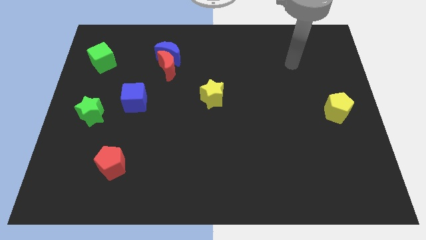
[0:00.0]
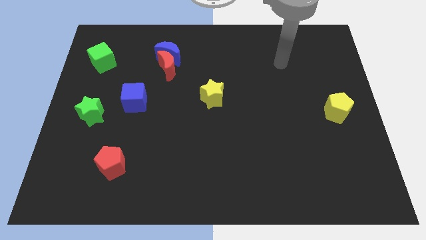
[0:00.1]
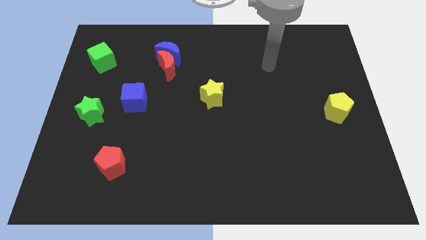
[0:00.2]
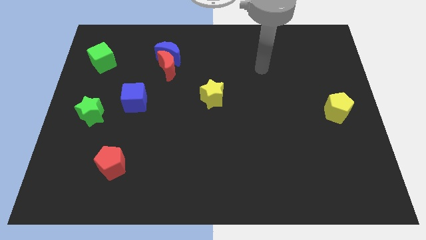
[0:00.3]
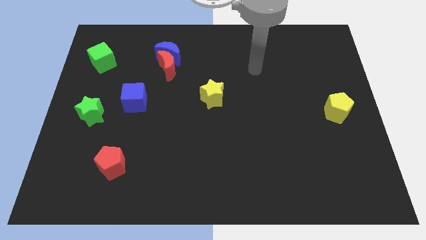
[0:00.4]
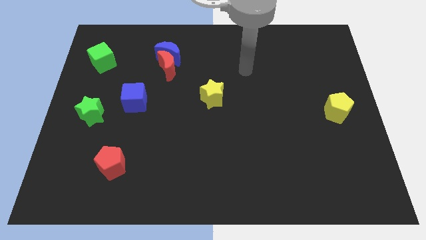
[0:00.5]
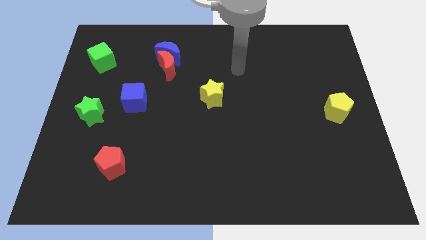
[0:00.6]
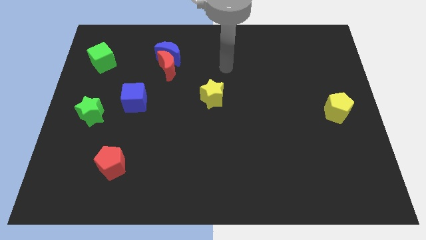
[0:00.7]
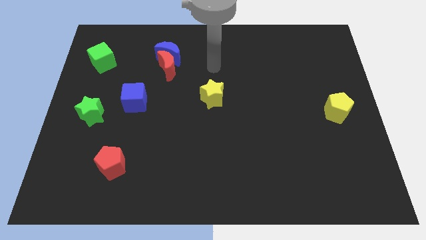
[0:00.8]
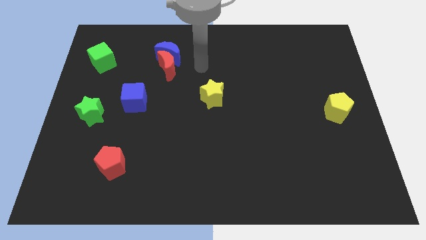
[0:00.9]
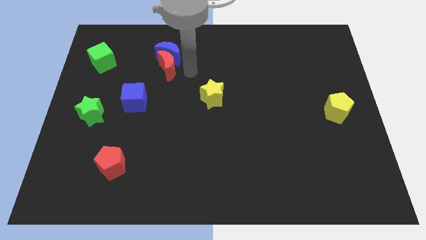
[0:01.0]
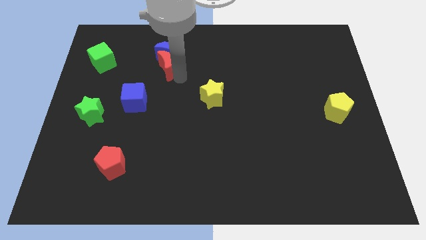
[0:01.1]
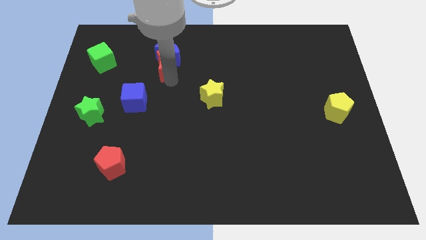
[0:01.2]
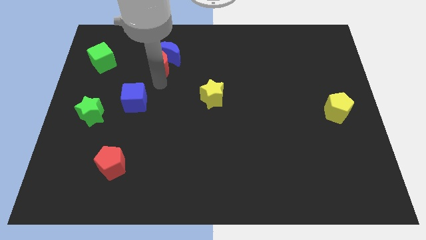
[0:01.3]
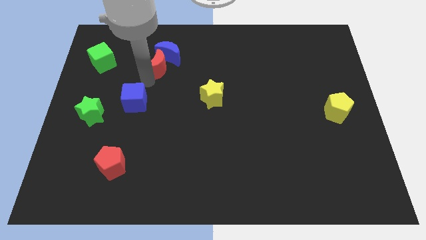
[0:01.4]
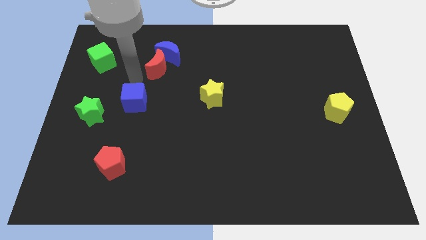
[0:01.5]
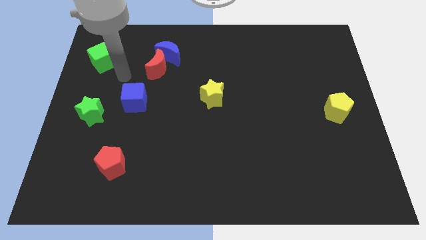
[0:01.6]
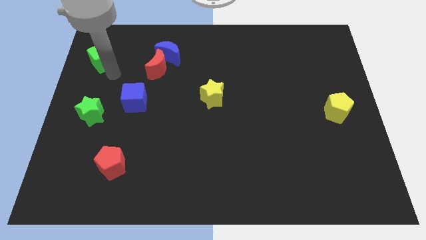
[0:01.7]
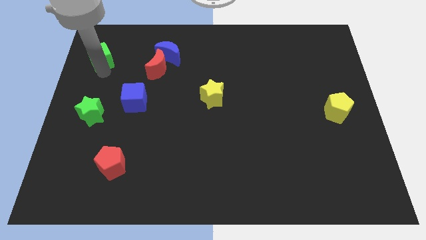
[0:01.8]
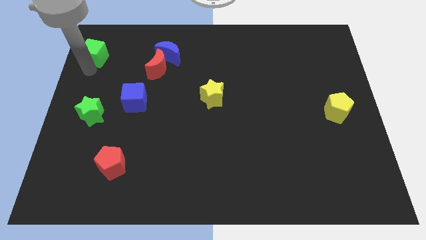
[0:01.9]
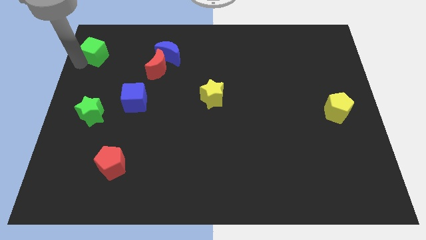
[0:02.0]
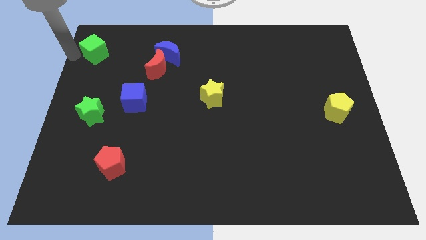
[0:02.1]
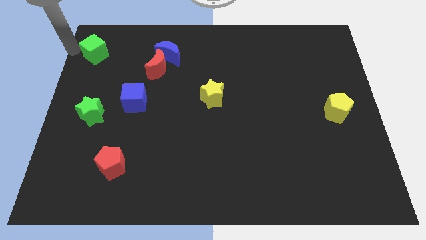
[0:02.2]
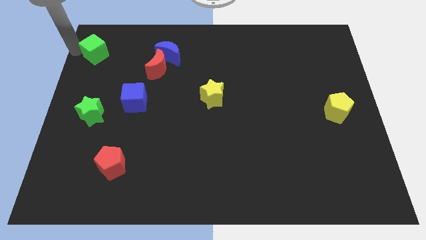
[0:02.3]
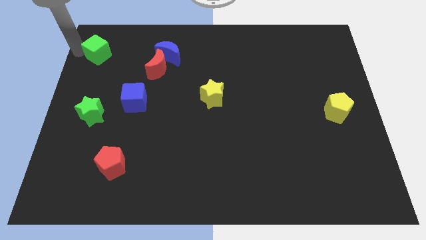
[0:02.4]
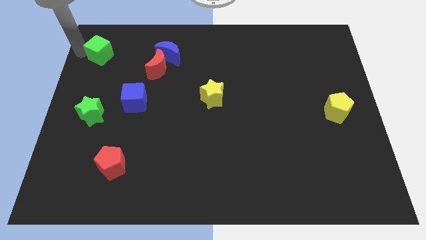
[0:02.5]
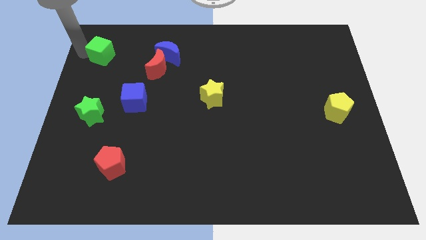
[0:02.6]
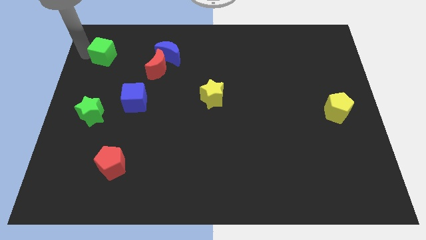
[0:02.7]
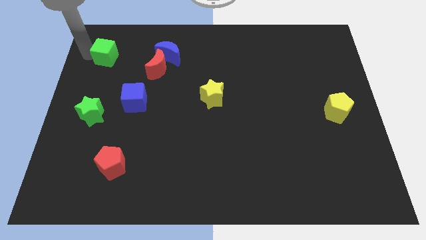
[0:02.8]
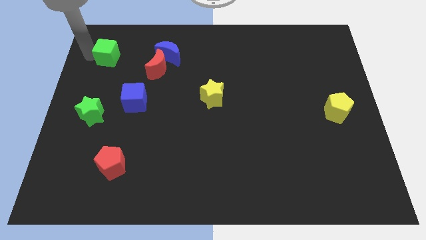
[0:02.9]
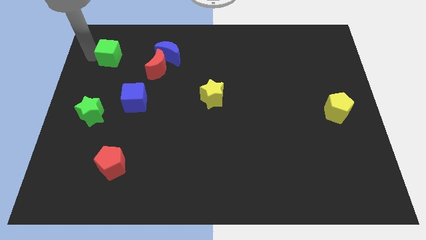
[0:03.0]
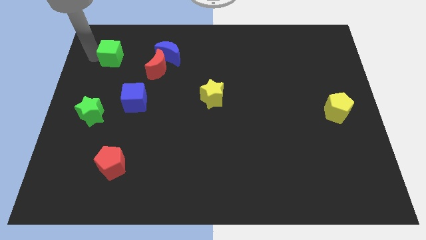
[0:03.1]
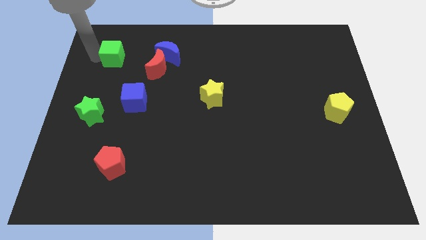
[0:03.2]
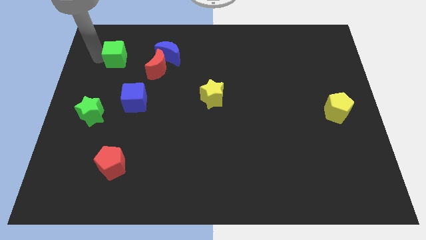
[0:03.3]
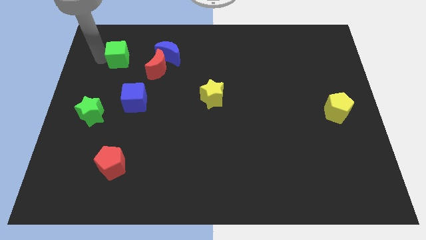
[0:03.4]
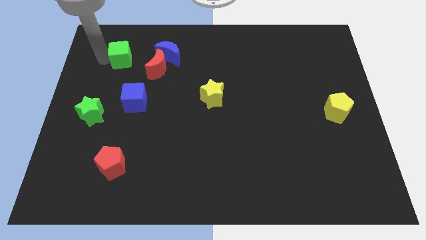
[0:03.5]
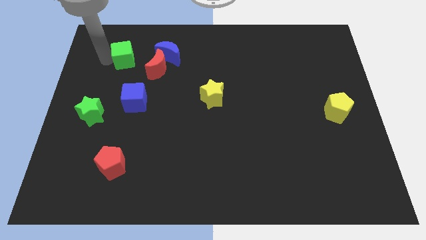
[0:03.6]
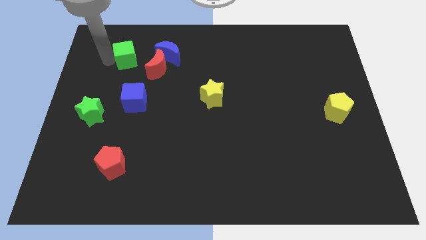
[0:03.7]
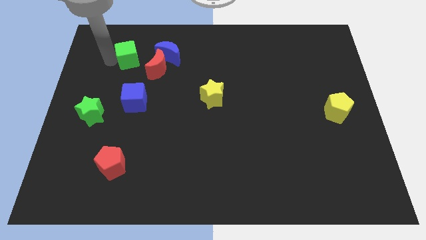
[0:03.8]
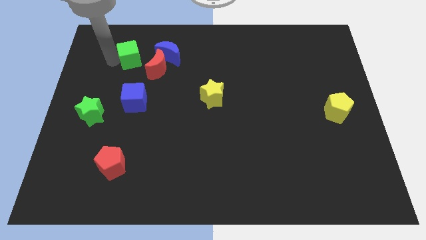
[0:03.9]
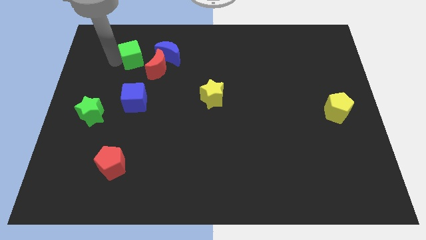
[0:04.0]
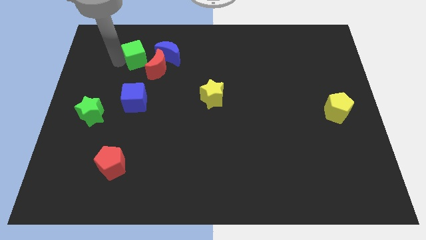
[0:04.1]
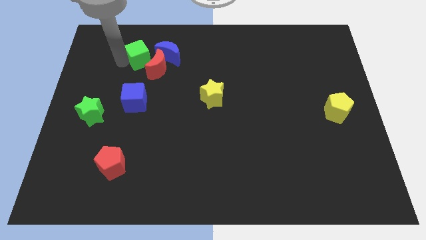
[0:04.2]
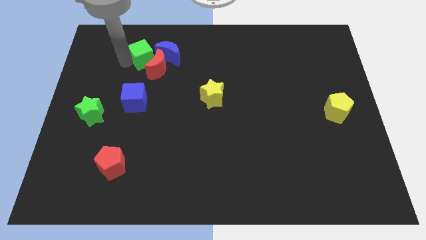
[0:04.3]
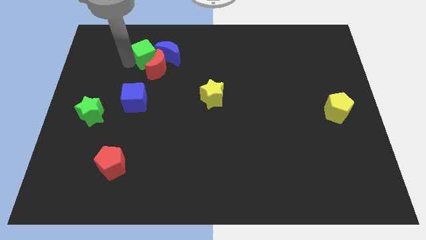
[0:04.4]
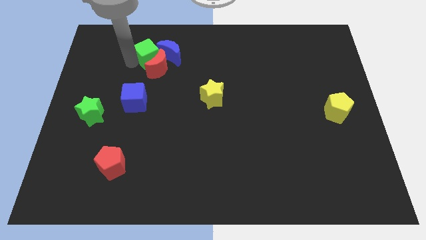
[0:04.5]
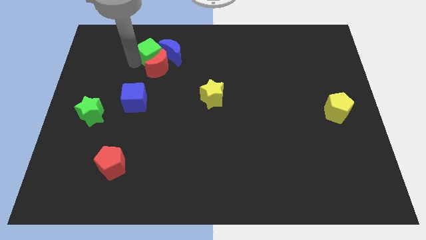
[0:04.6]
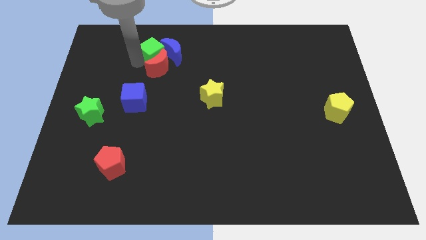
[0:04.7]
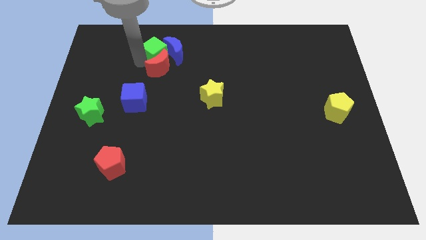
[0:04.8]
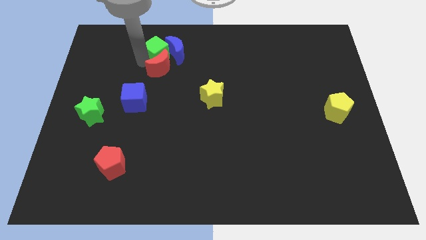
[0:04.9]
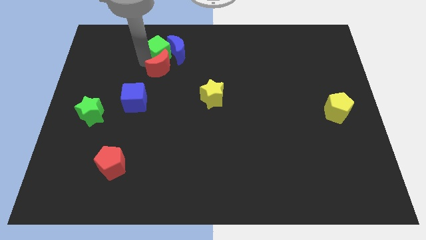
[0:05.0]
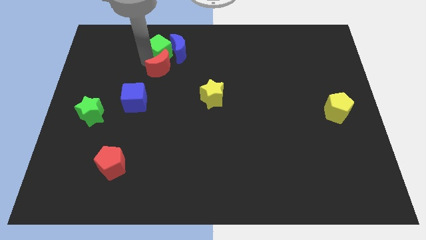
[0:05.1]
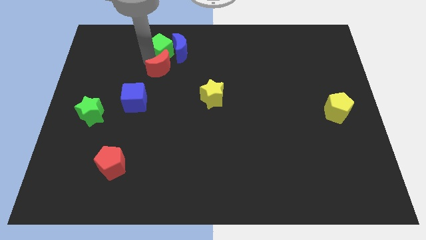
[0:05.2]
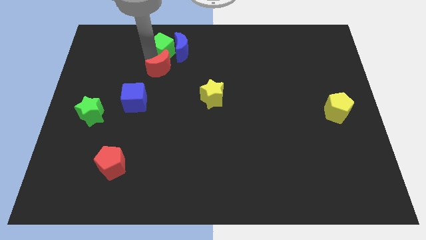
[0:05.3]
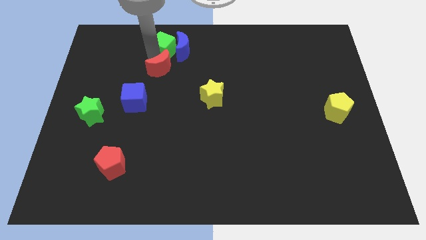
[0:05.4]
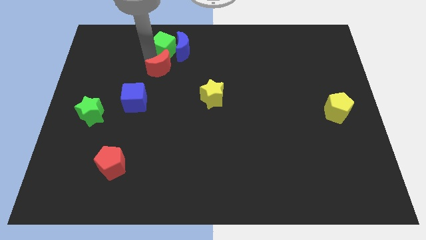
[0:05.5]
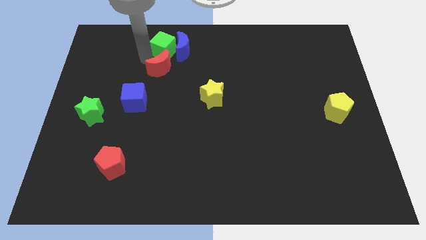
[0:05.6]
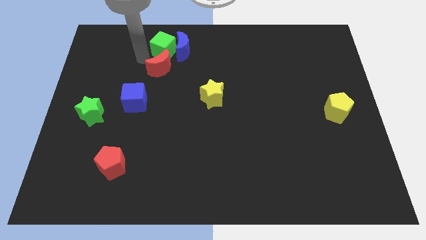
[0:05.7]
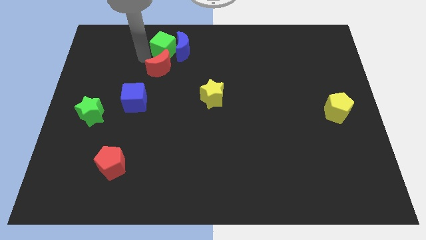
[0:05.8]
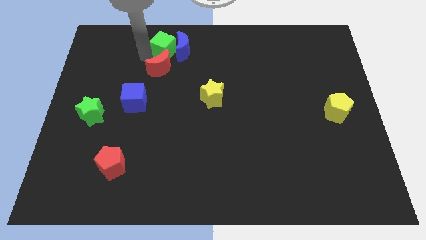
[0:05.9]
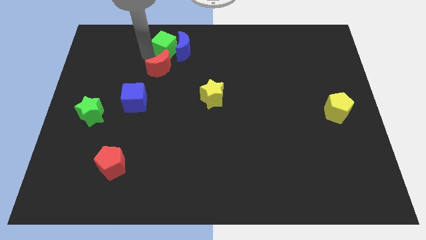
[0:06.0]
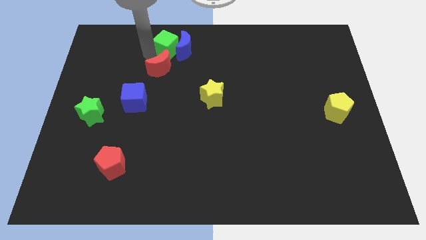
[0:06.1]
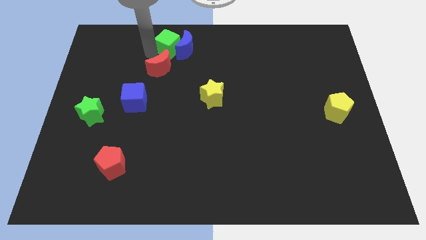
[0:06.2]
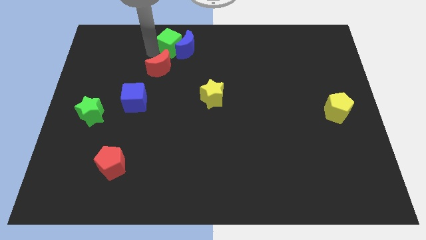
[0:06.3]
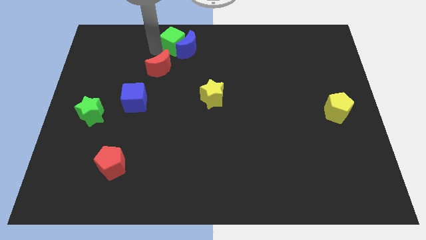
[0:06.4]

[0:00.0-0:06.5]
move the green cube to the top

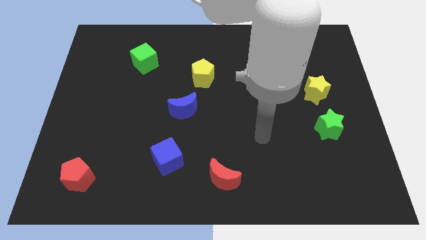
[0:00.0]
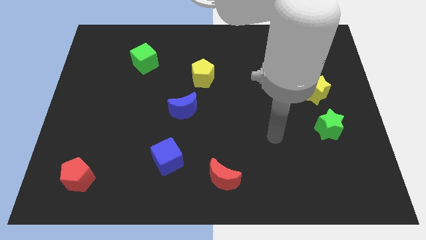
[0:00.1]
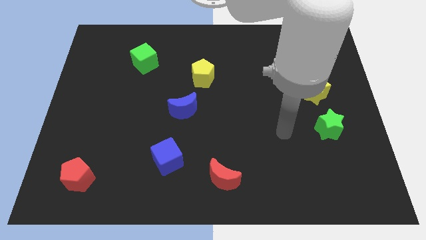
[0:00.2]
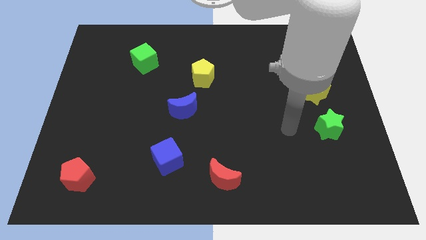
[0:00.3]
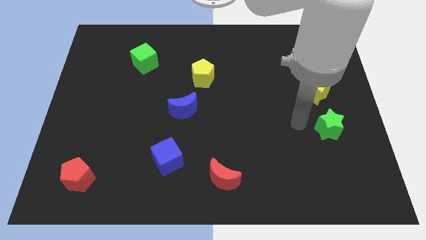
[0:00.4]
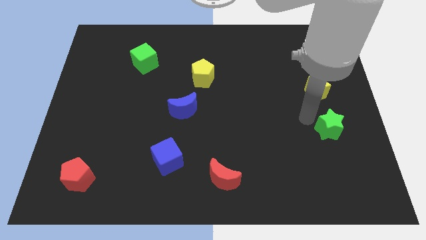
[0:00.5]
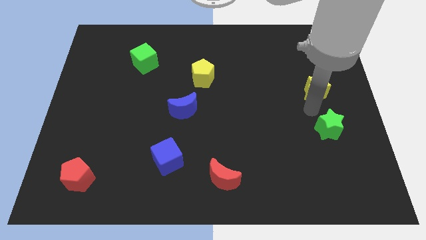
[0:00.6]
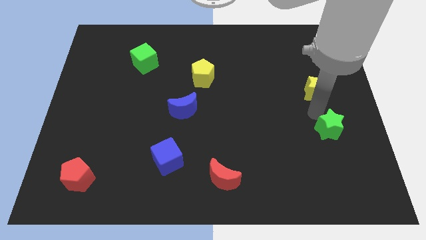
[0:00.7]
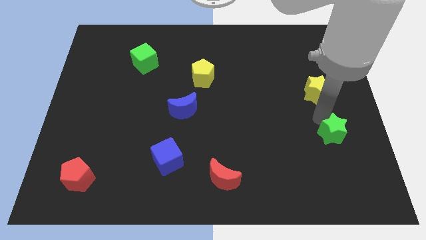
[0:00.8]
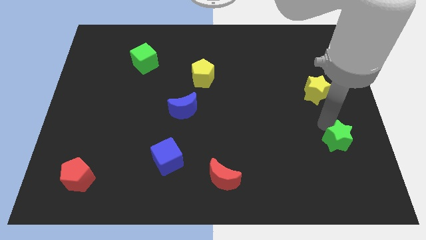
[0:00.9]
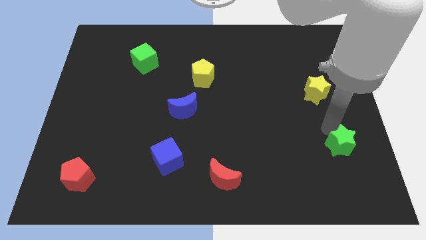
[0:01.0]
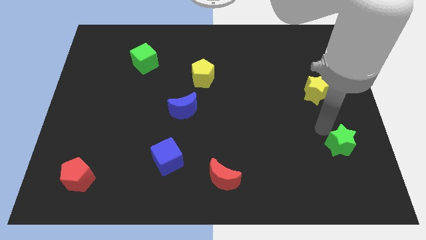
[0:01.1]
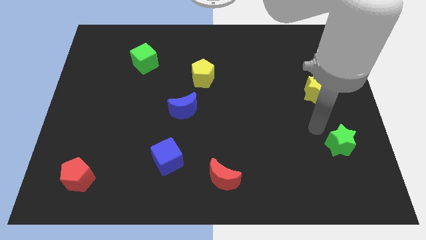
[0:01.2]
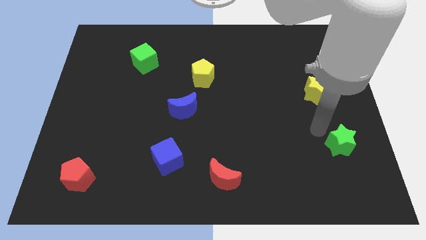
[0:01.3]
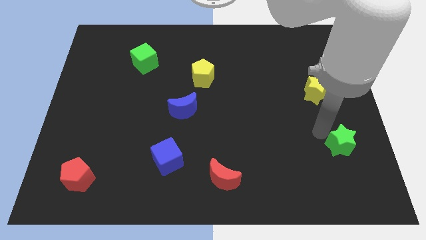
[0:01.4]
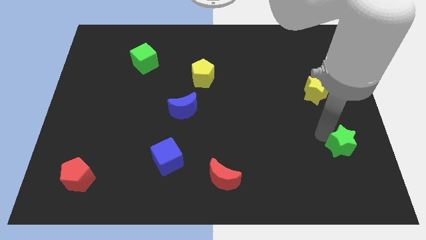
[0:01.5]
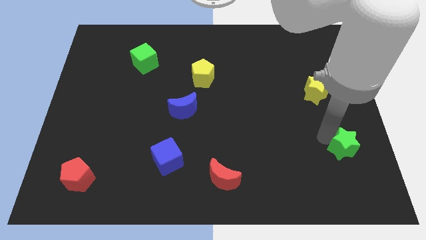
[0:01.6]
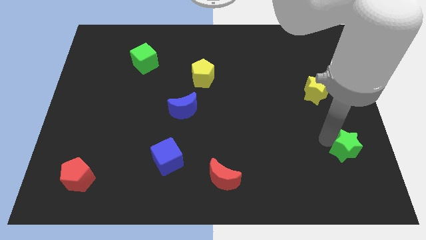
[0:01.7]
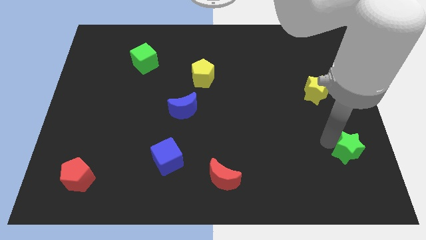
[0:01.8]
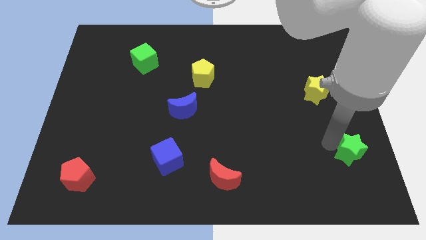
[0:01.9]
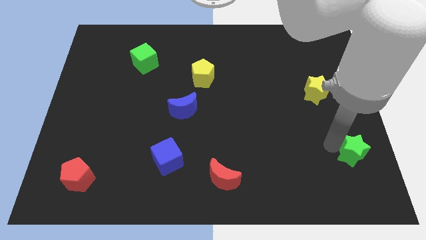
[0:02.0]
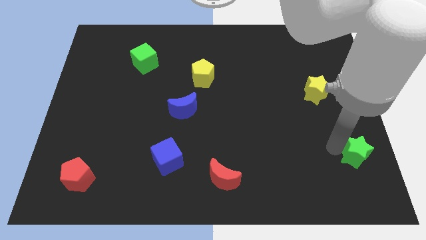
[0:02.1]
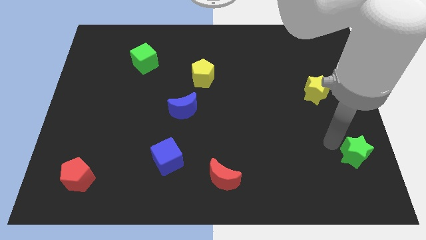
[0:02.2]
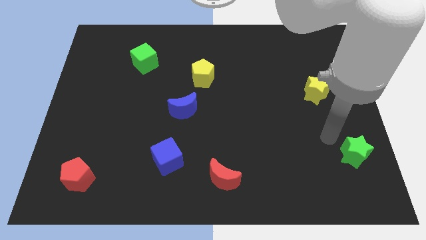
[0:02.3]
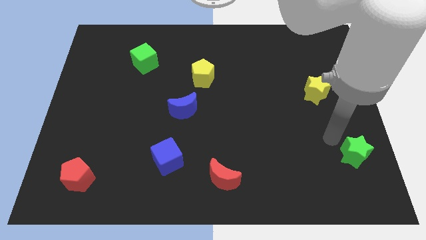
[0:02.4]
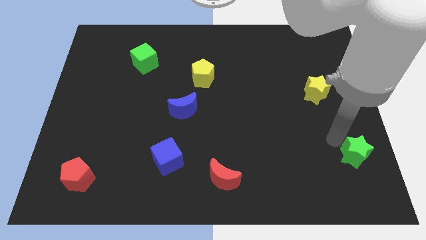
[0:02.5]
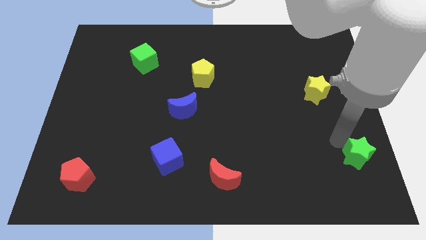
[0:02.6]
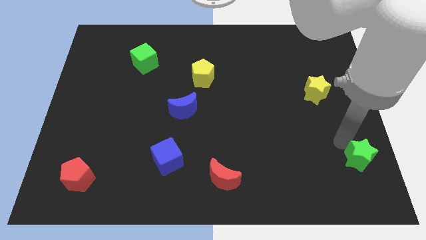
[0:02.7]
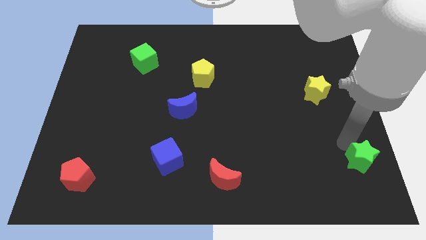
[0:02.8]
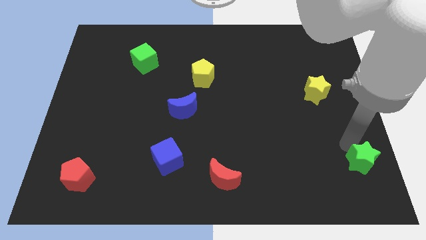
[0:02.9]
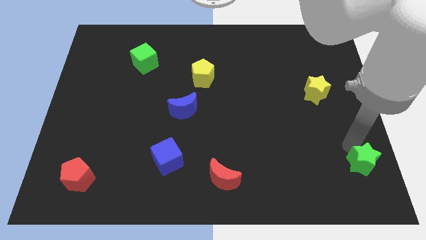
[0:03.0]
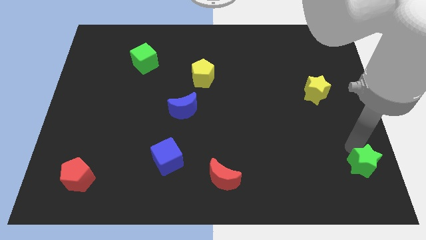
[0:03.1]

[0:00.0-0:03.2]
move the green star to the bottom right of the board
